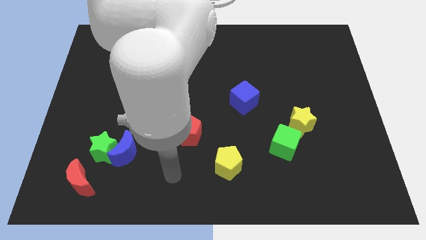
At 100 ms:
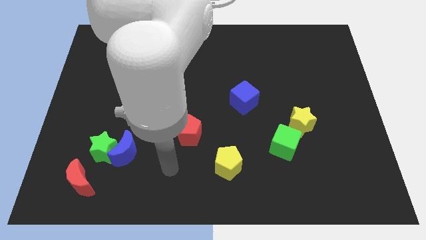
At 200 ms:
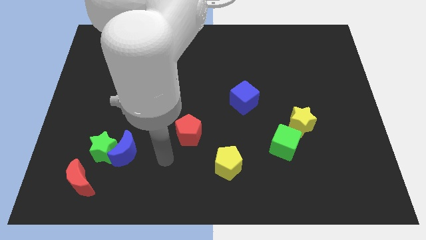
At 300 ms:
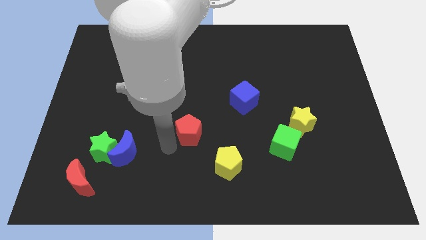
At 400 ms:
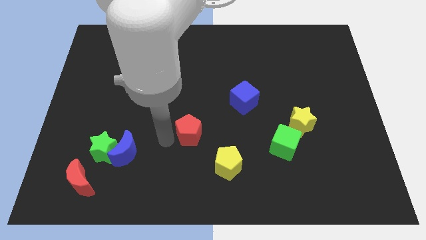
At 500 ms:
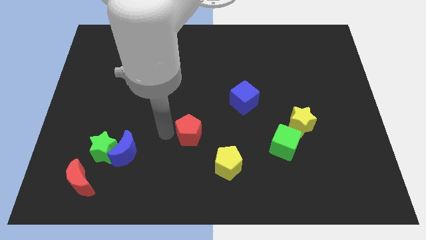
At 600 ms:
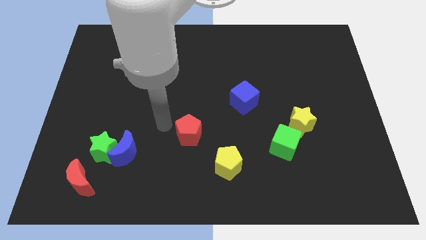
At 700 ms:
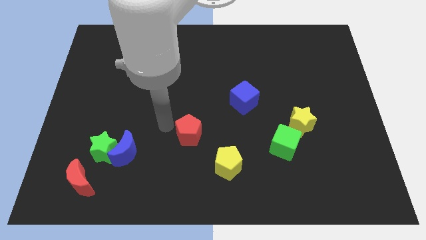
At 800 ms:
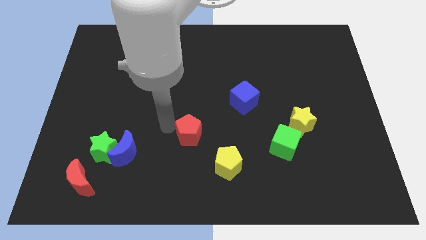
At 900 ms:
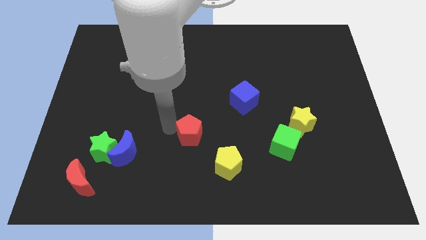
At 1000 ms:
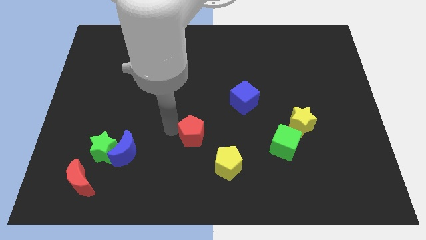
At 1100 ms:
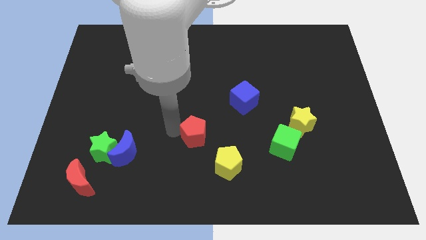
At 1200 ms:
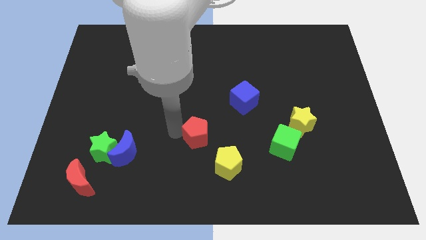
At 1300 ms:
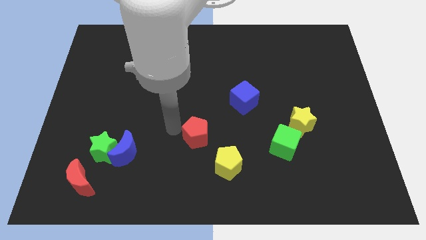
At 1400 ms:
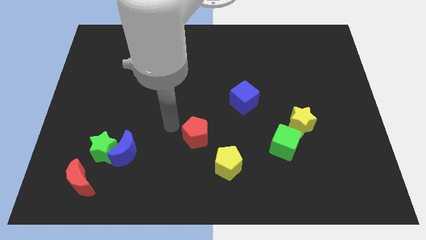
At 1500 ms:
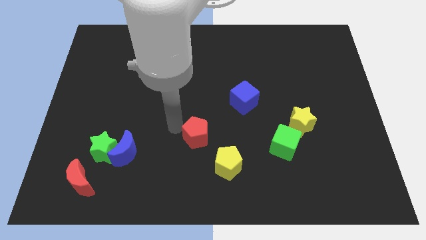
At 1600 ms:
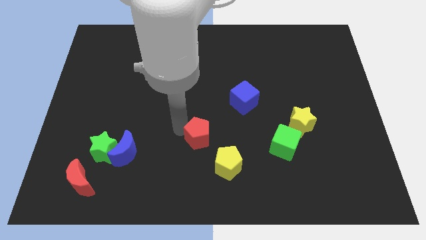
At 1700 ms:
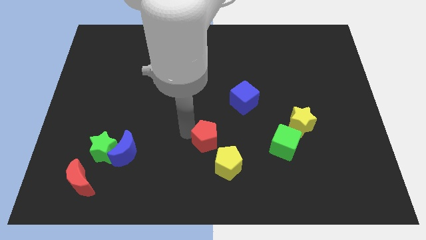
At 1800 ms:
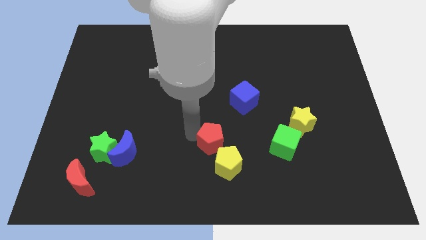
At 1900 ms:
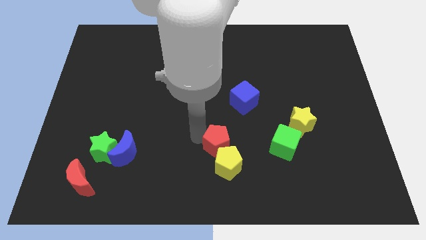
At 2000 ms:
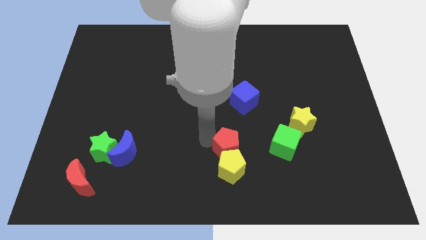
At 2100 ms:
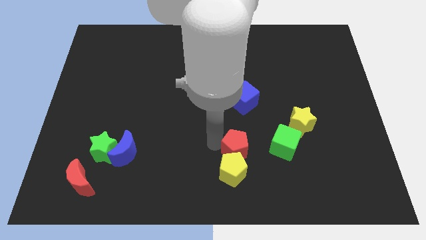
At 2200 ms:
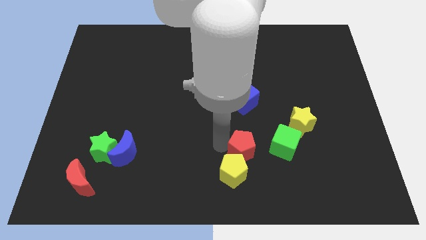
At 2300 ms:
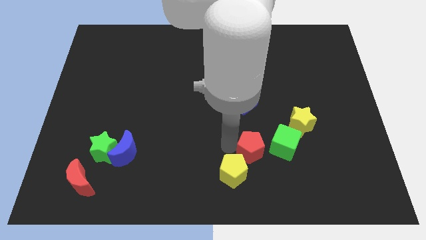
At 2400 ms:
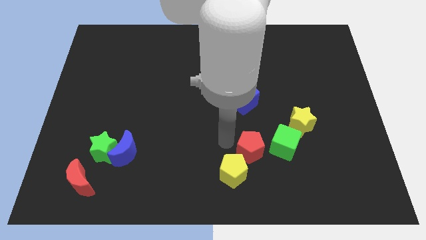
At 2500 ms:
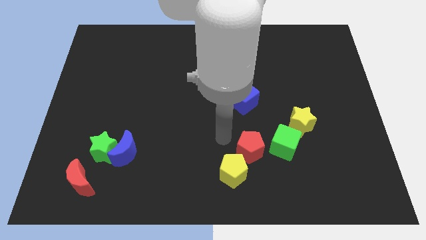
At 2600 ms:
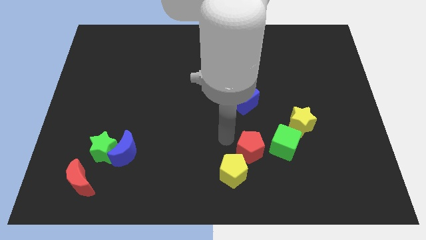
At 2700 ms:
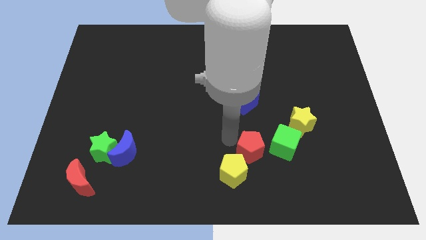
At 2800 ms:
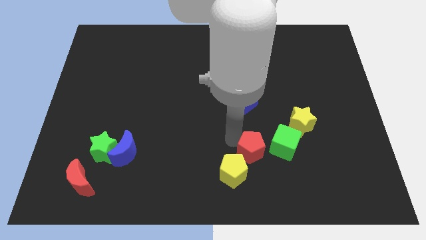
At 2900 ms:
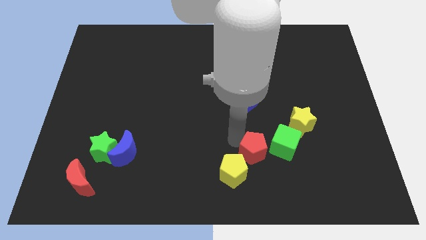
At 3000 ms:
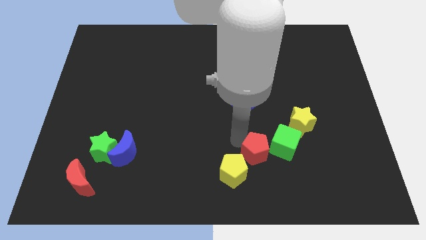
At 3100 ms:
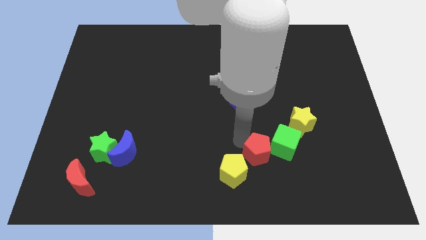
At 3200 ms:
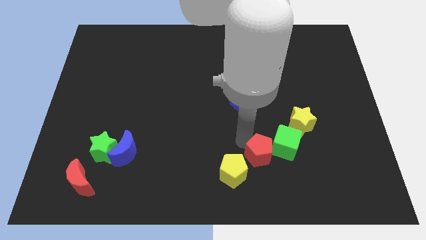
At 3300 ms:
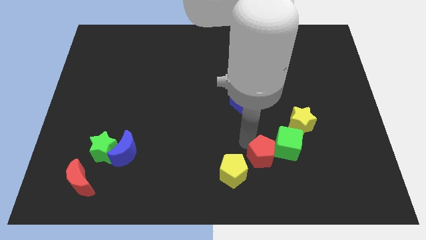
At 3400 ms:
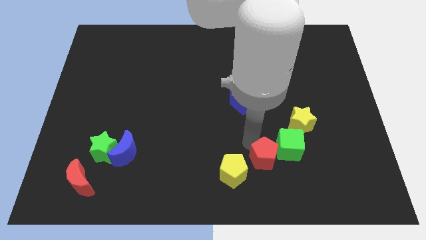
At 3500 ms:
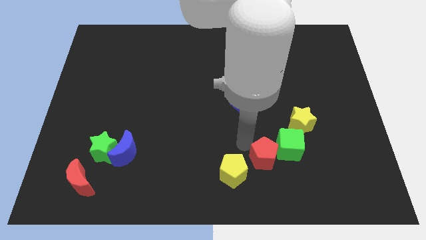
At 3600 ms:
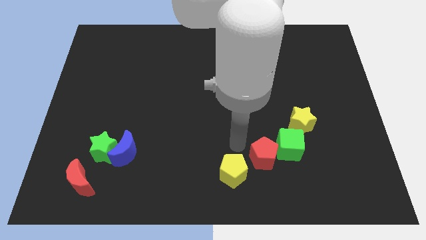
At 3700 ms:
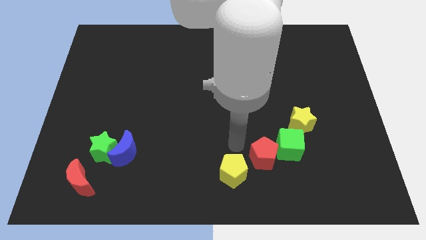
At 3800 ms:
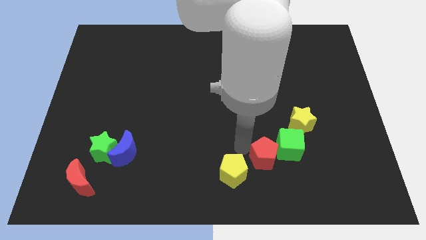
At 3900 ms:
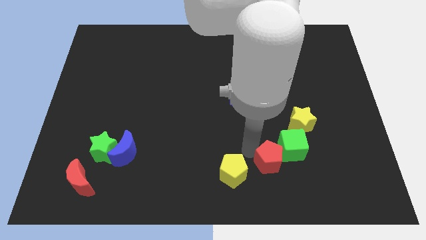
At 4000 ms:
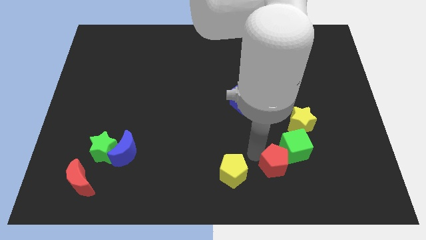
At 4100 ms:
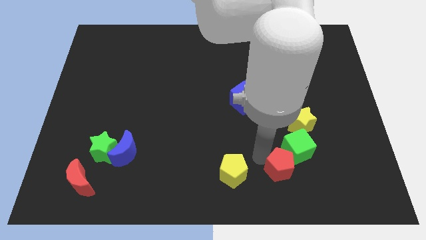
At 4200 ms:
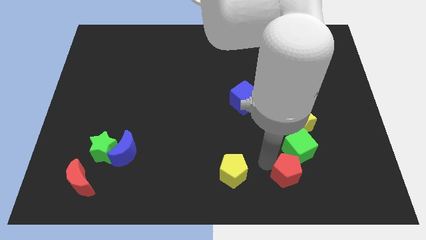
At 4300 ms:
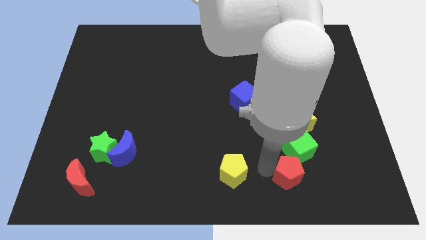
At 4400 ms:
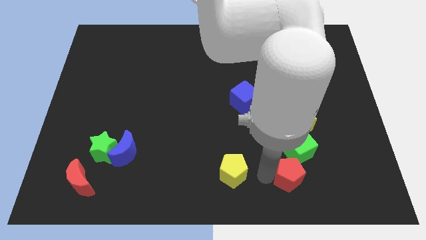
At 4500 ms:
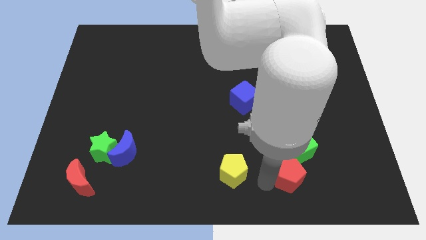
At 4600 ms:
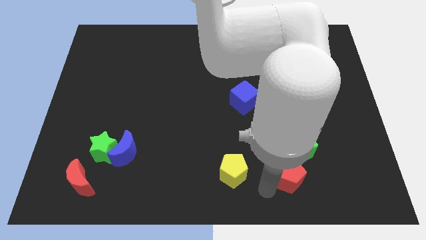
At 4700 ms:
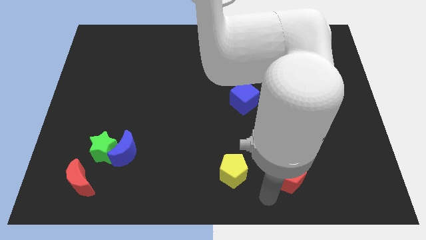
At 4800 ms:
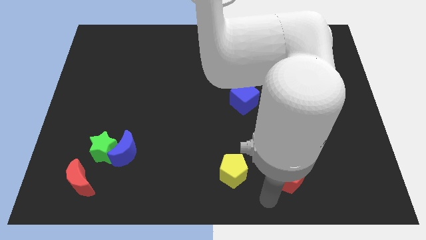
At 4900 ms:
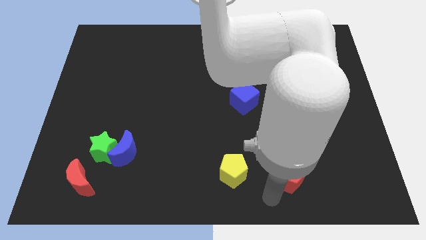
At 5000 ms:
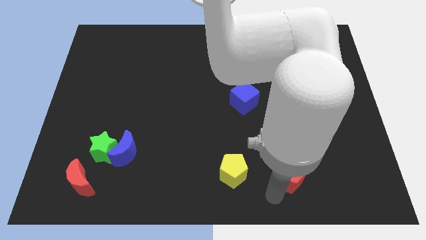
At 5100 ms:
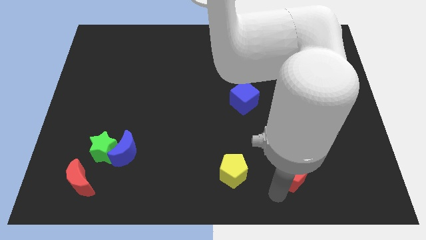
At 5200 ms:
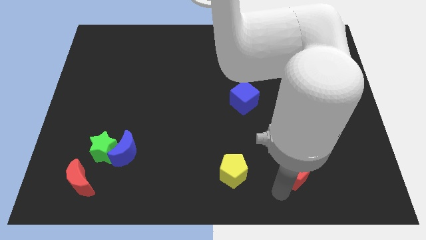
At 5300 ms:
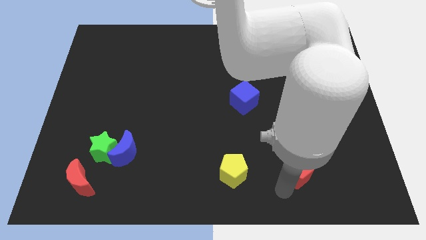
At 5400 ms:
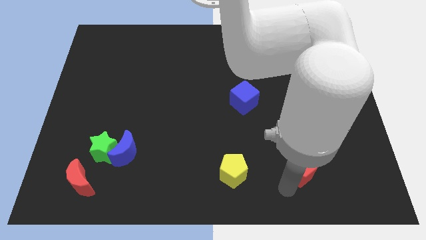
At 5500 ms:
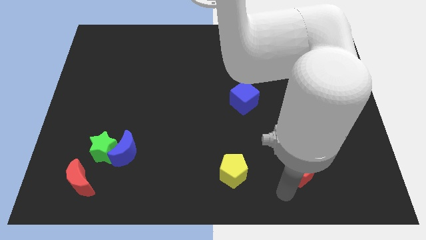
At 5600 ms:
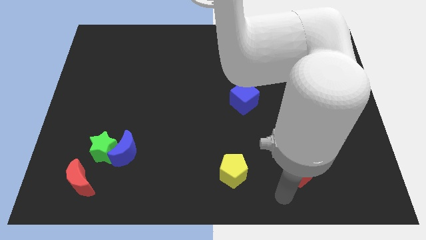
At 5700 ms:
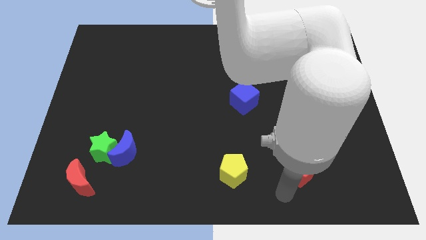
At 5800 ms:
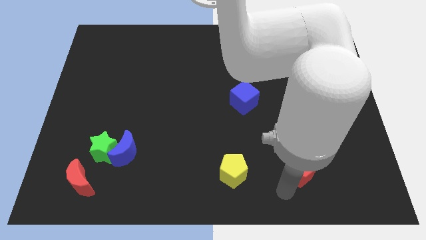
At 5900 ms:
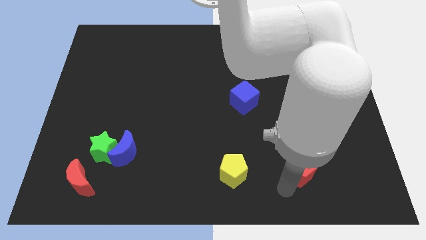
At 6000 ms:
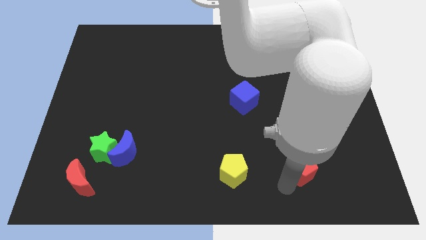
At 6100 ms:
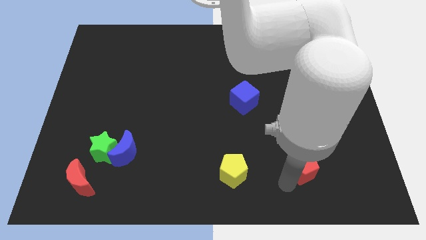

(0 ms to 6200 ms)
slide the red pentagon to the right

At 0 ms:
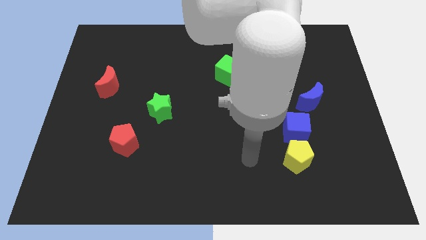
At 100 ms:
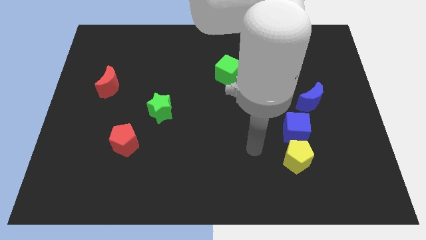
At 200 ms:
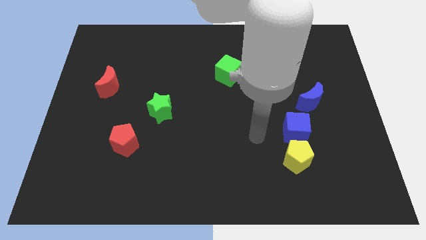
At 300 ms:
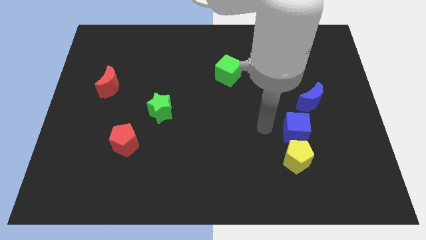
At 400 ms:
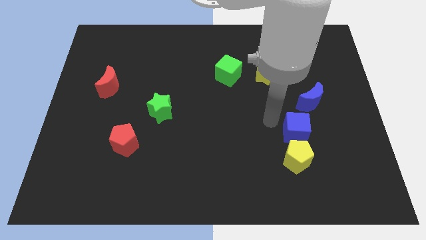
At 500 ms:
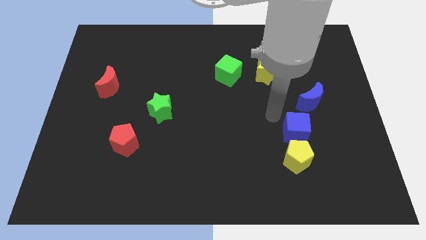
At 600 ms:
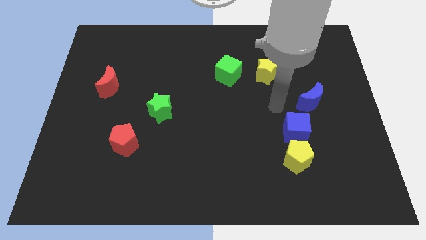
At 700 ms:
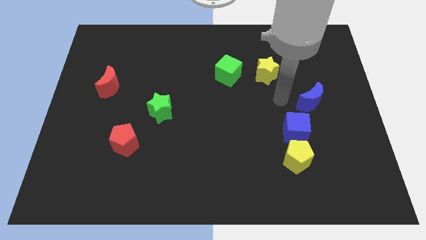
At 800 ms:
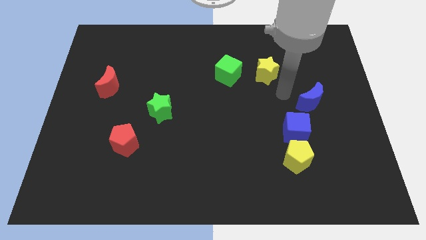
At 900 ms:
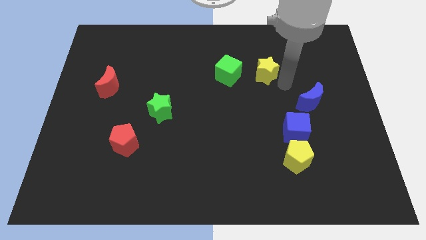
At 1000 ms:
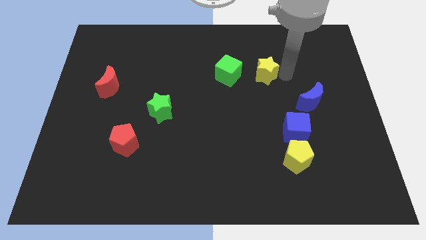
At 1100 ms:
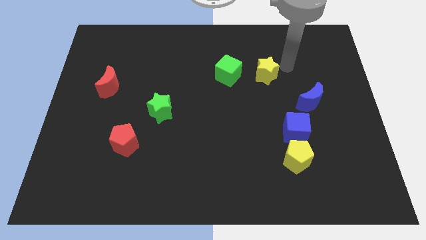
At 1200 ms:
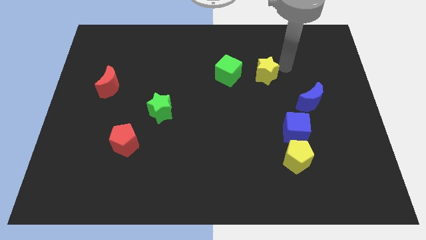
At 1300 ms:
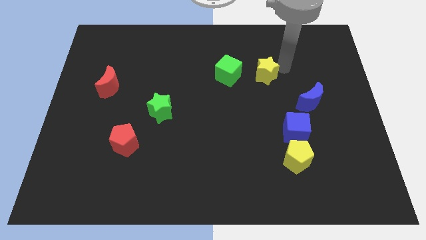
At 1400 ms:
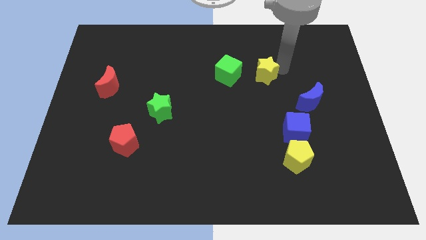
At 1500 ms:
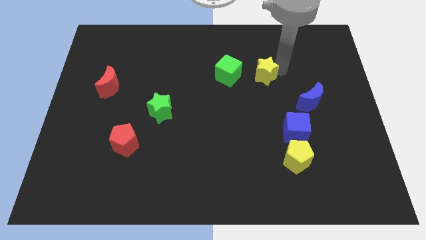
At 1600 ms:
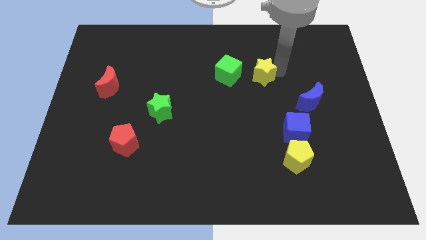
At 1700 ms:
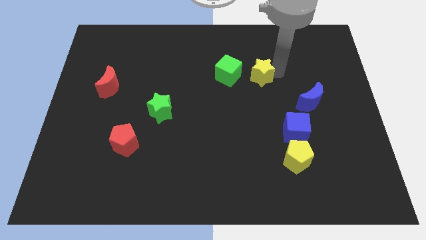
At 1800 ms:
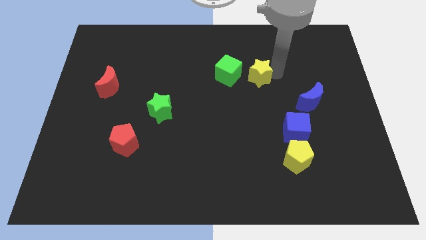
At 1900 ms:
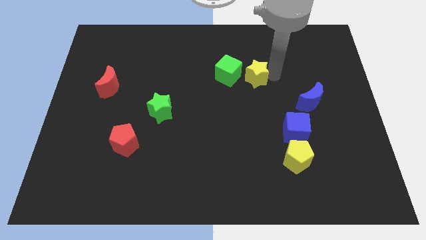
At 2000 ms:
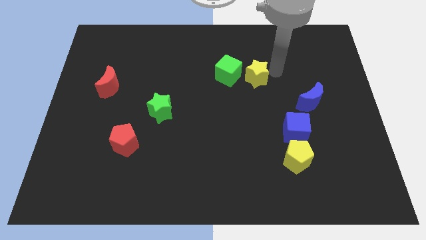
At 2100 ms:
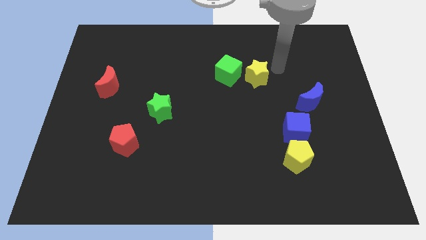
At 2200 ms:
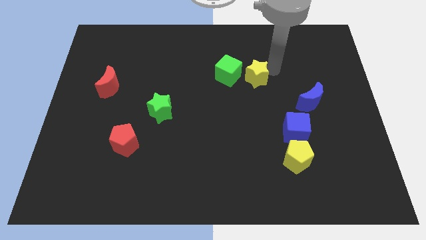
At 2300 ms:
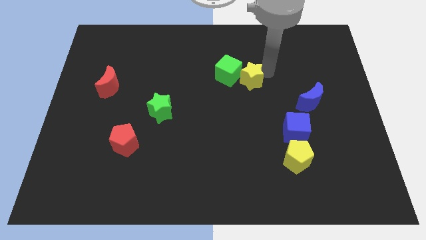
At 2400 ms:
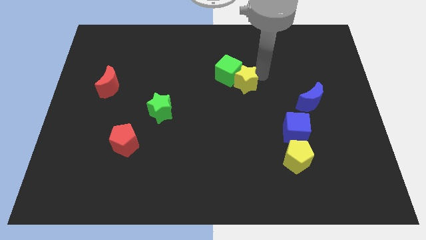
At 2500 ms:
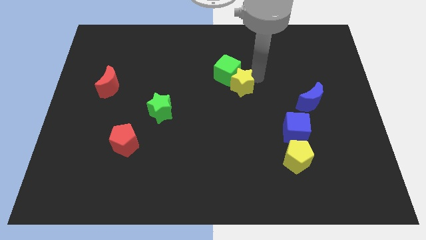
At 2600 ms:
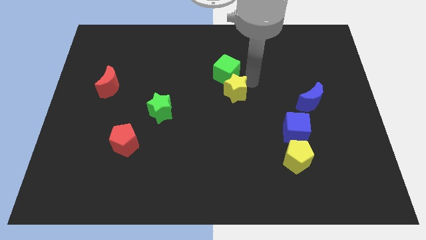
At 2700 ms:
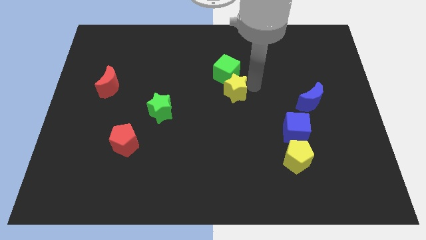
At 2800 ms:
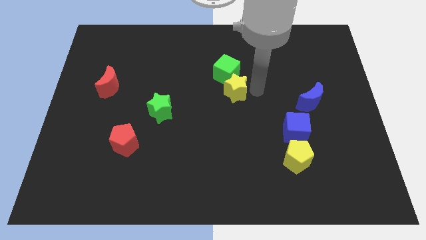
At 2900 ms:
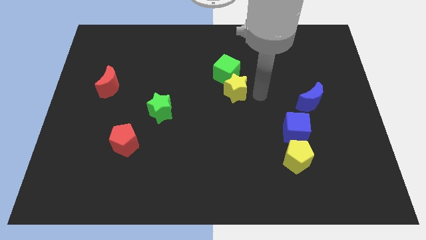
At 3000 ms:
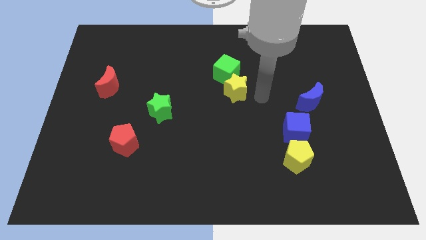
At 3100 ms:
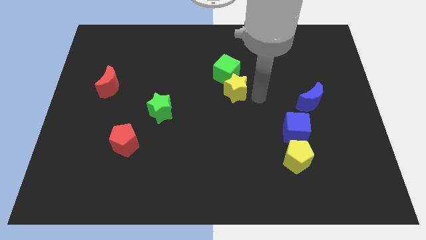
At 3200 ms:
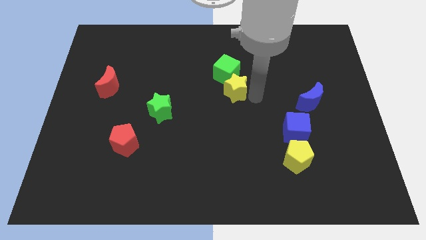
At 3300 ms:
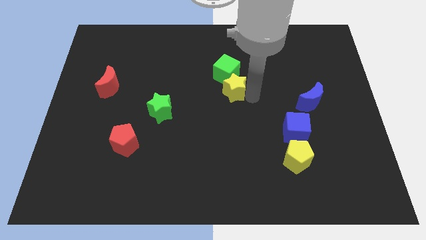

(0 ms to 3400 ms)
push the yellow star slightly to the left
